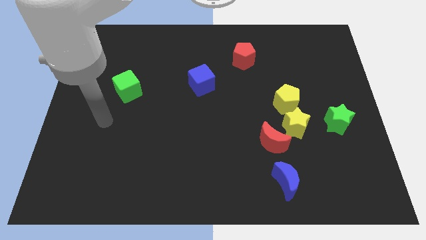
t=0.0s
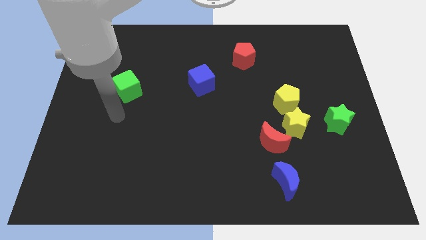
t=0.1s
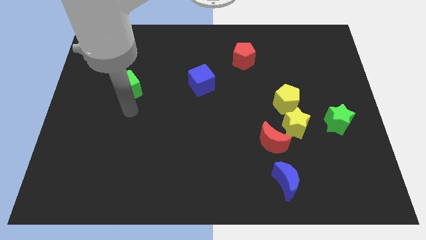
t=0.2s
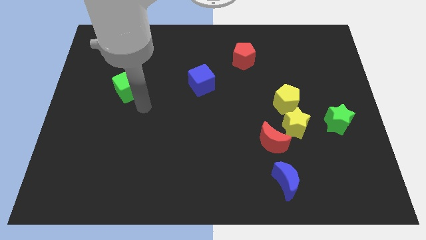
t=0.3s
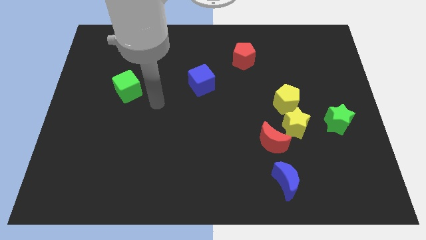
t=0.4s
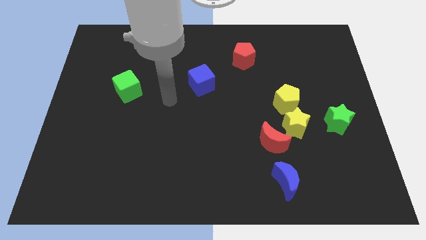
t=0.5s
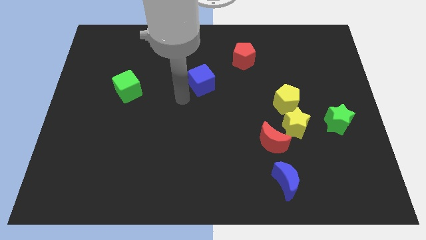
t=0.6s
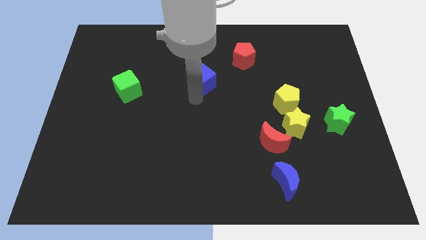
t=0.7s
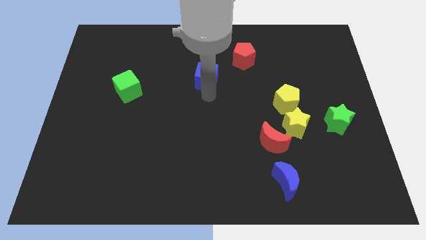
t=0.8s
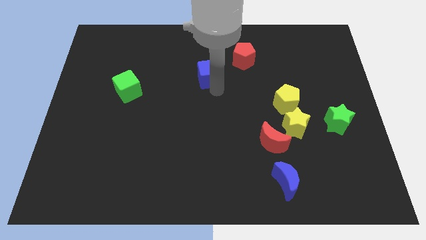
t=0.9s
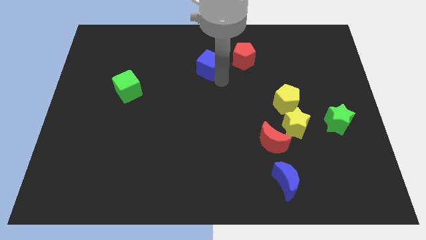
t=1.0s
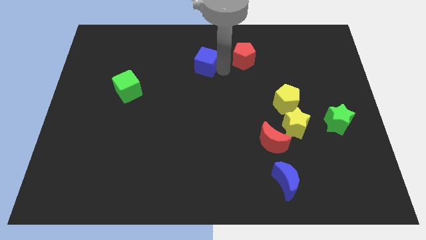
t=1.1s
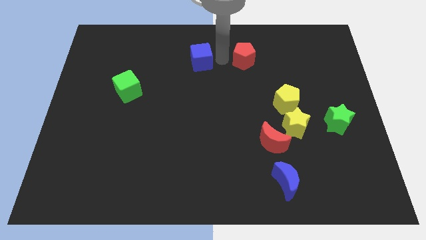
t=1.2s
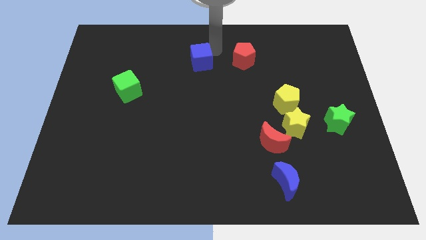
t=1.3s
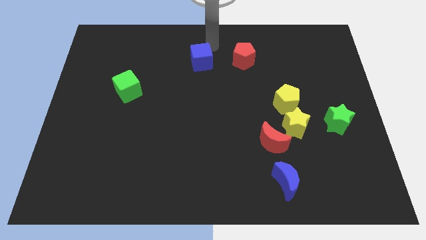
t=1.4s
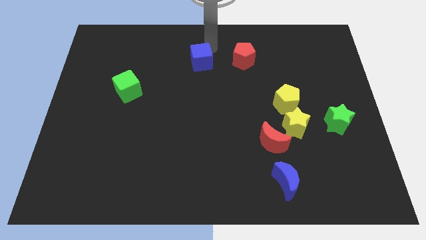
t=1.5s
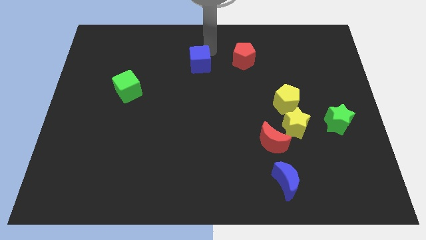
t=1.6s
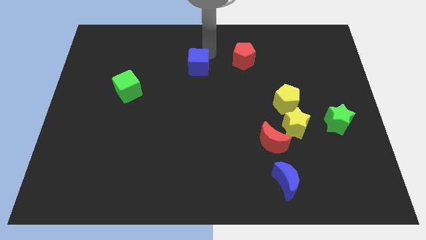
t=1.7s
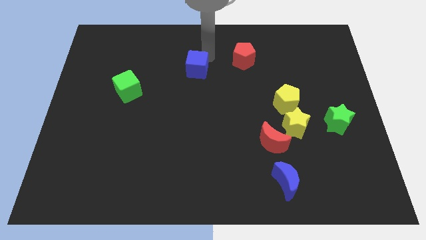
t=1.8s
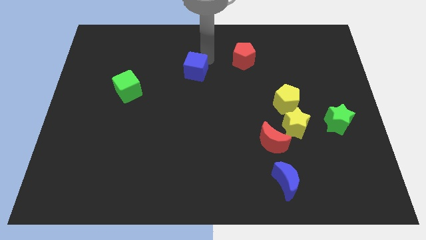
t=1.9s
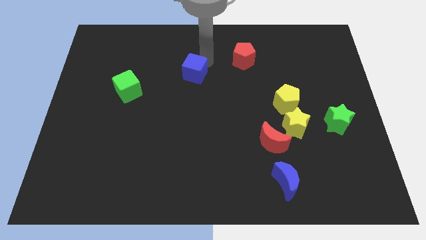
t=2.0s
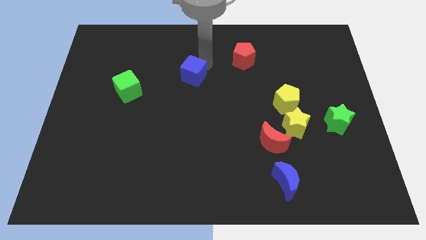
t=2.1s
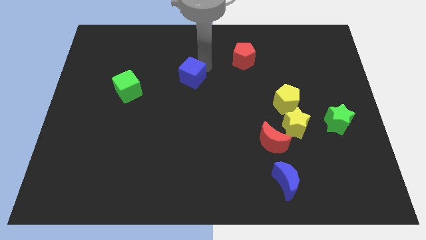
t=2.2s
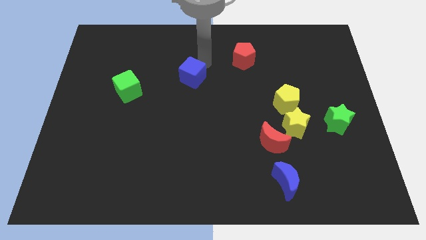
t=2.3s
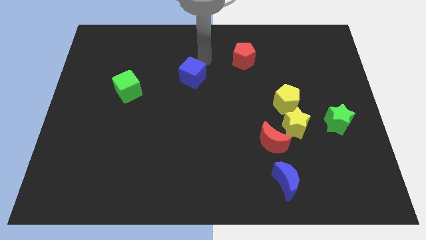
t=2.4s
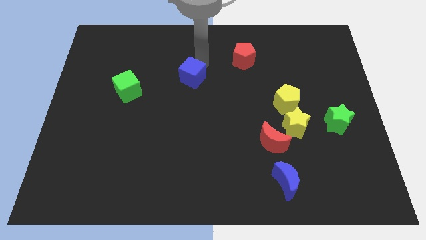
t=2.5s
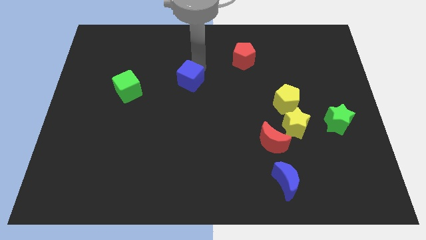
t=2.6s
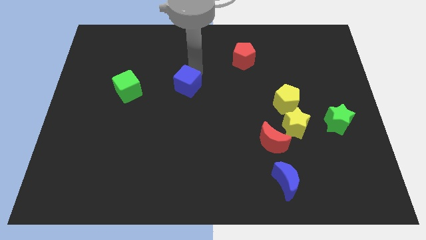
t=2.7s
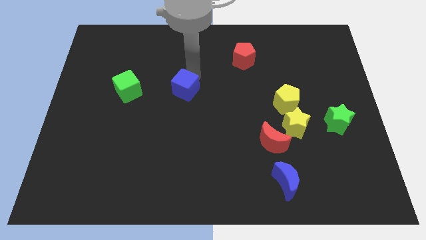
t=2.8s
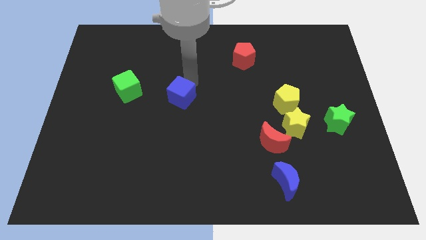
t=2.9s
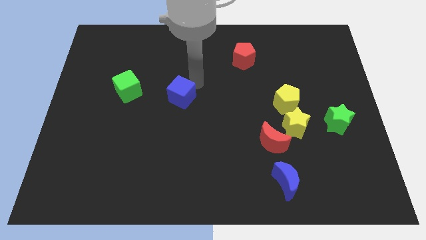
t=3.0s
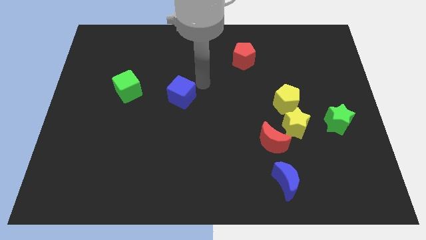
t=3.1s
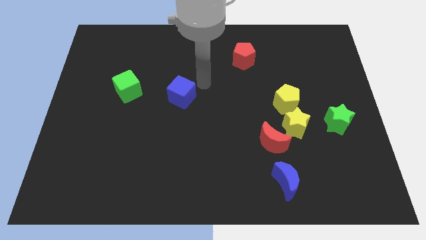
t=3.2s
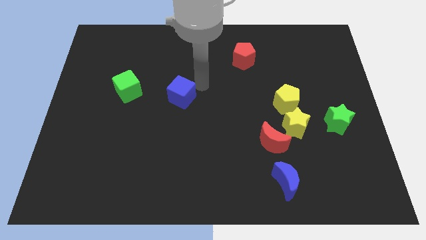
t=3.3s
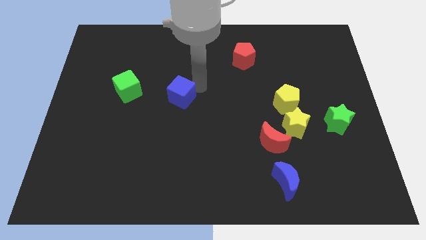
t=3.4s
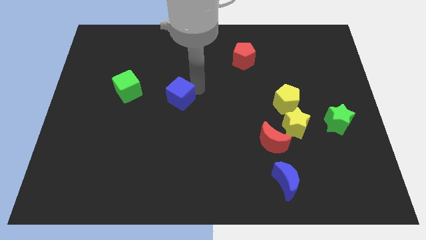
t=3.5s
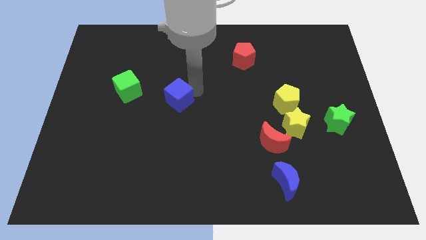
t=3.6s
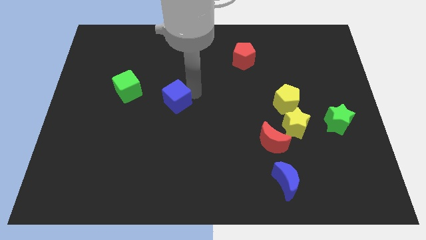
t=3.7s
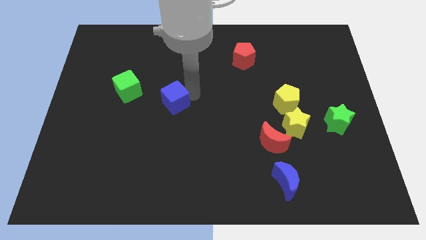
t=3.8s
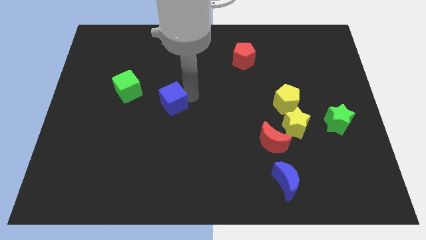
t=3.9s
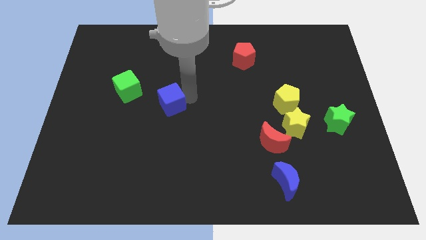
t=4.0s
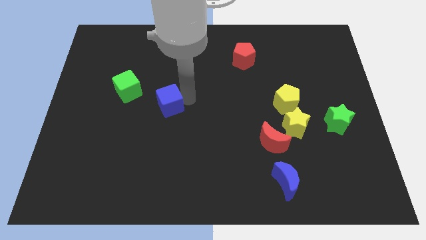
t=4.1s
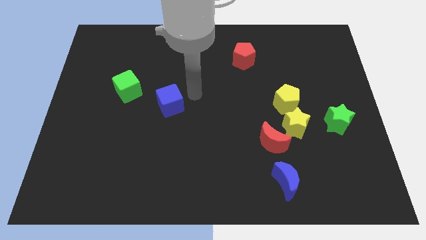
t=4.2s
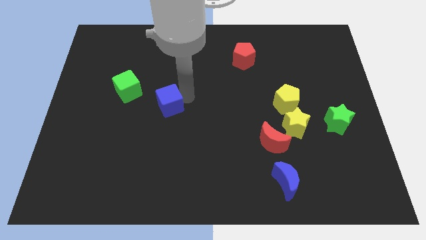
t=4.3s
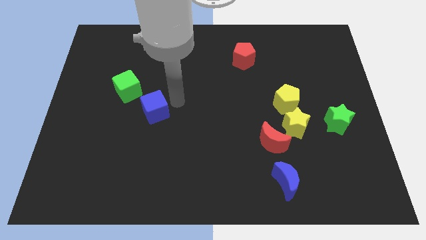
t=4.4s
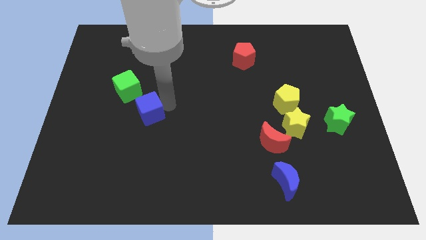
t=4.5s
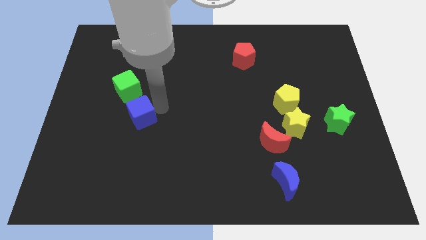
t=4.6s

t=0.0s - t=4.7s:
push the blue cube to the bottom of the green cube

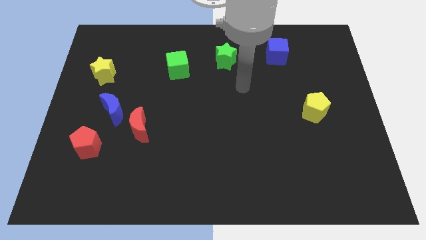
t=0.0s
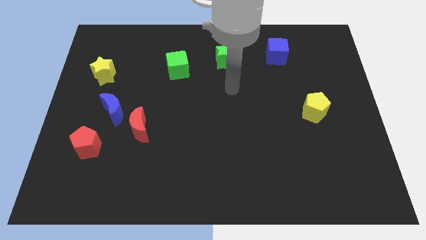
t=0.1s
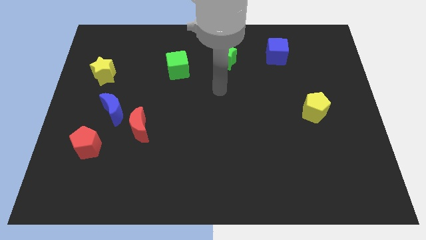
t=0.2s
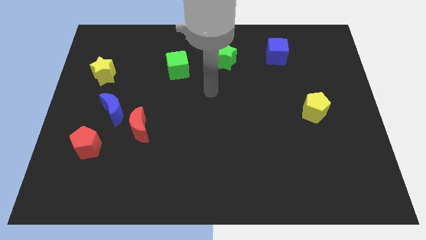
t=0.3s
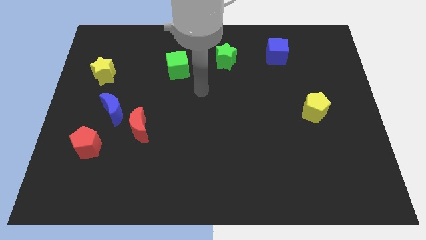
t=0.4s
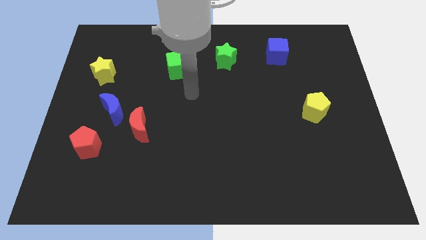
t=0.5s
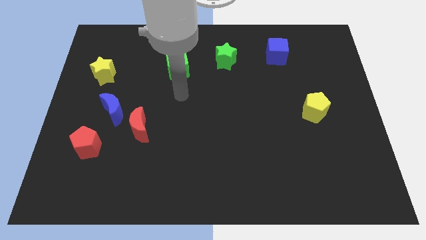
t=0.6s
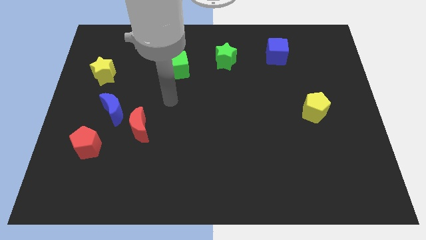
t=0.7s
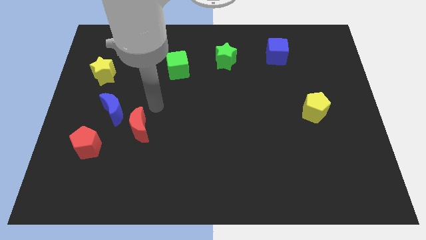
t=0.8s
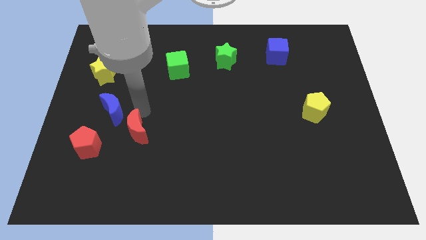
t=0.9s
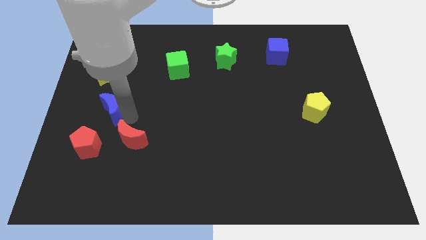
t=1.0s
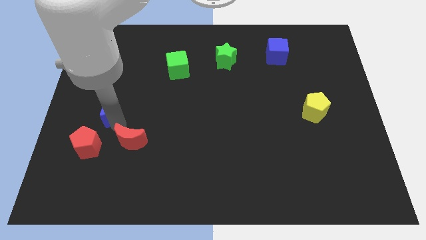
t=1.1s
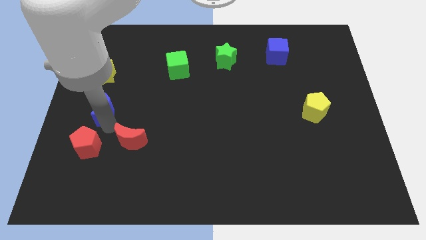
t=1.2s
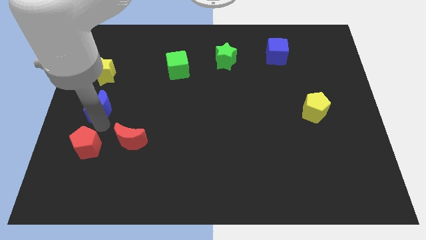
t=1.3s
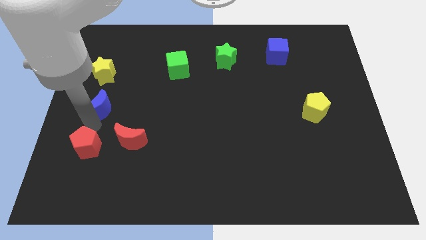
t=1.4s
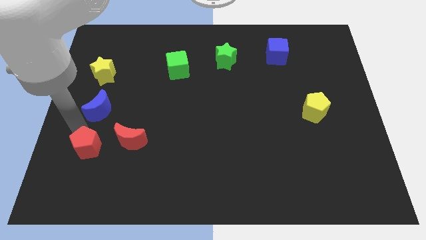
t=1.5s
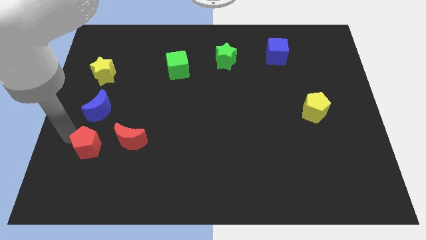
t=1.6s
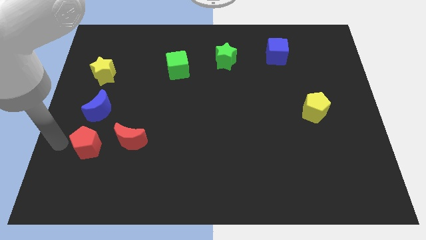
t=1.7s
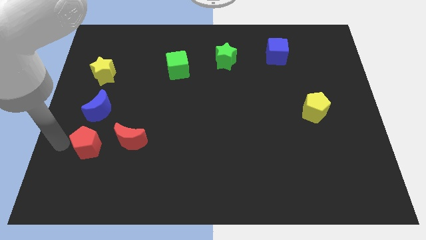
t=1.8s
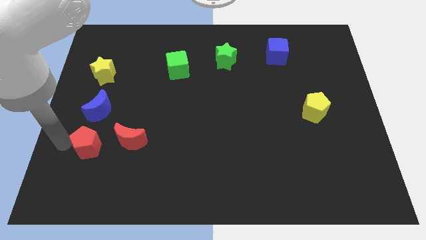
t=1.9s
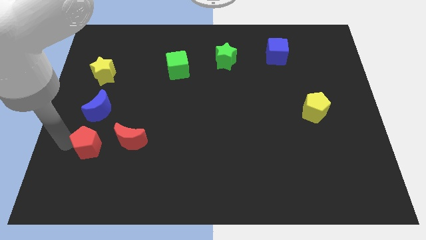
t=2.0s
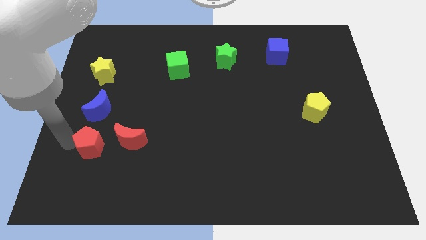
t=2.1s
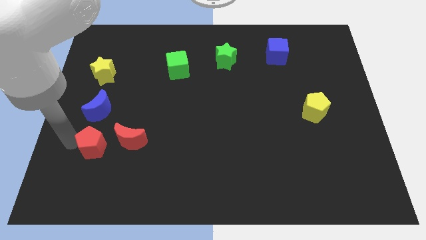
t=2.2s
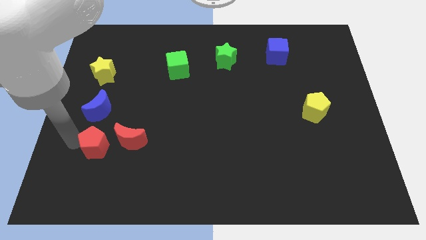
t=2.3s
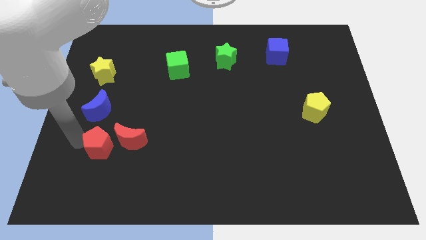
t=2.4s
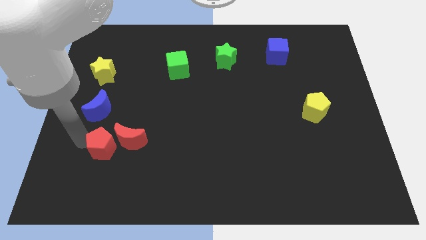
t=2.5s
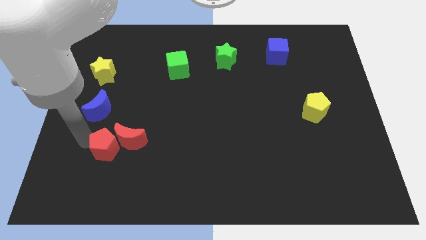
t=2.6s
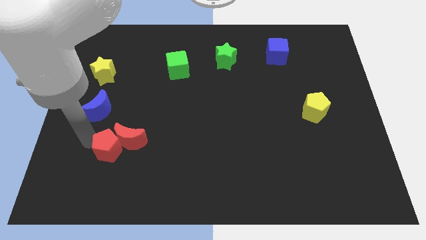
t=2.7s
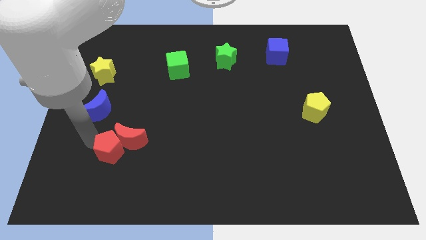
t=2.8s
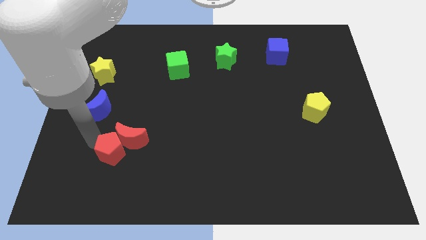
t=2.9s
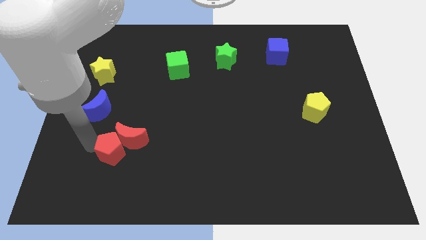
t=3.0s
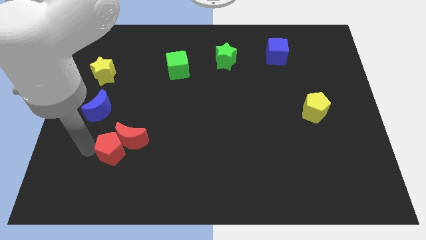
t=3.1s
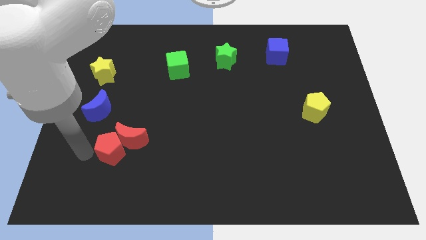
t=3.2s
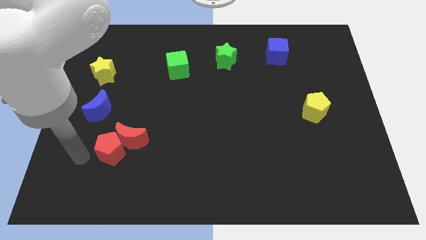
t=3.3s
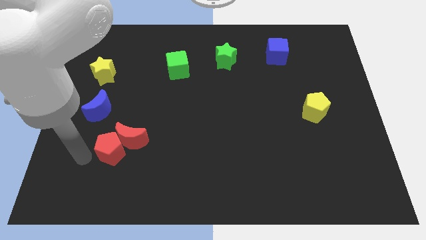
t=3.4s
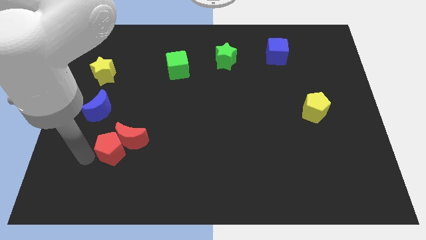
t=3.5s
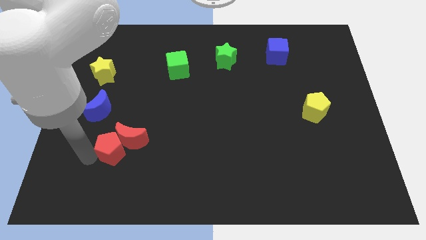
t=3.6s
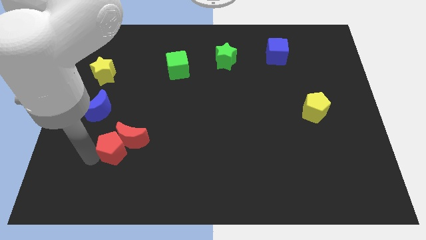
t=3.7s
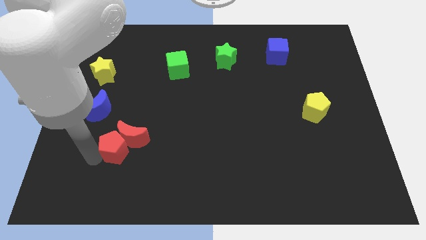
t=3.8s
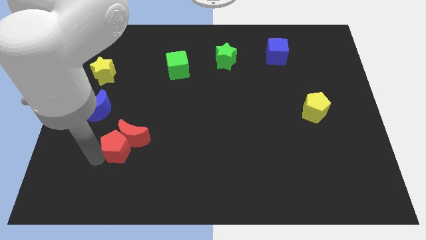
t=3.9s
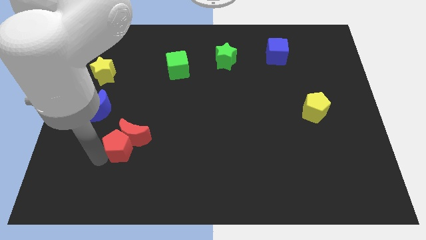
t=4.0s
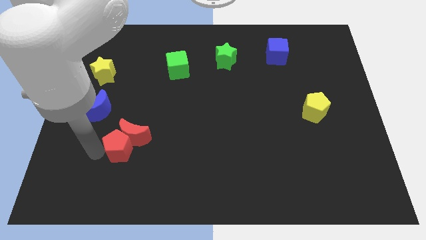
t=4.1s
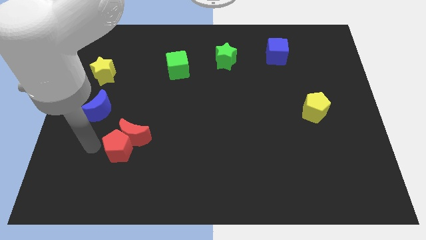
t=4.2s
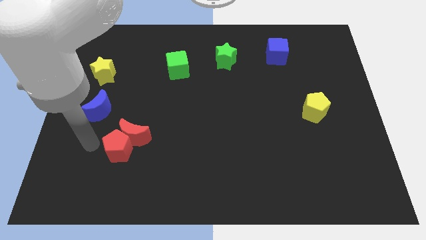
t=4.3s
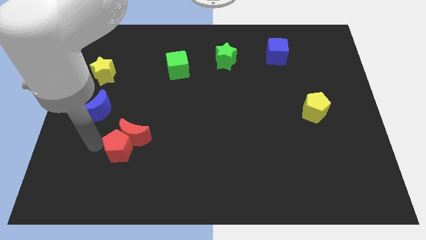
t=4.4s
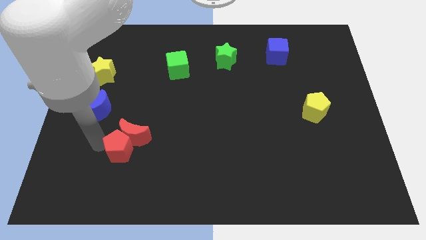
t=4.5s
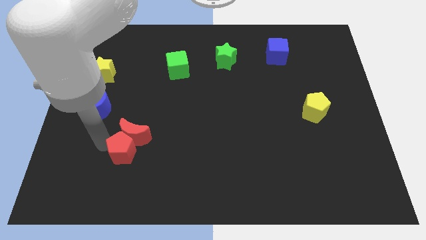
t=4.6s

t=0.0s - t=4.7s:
push the red pentagon to the bottom right side of the red moon
